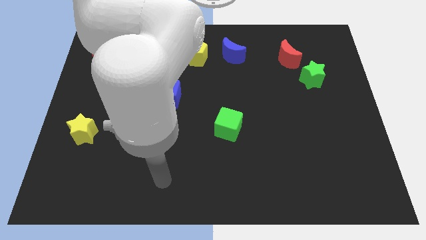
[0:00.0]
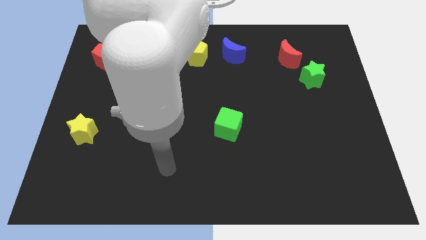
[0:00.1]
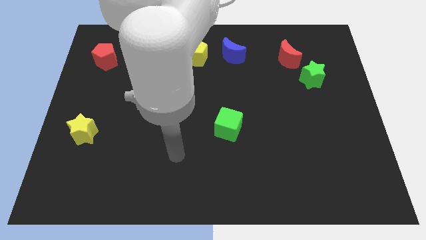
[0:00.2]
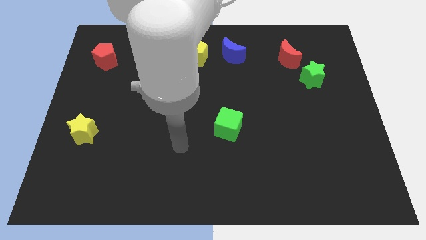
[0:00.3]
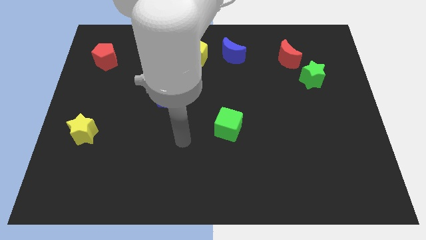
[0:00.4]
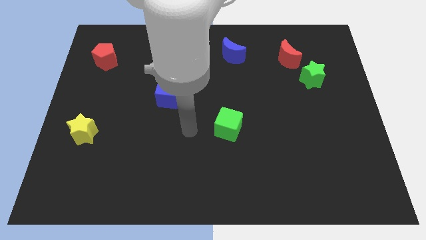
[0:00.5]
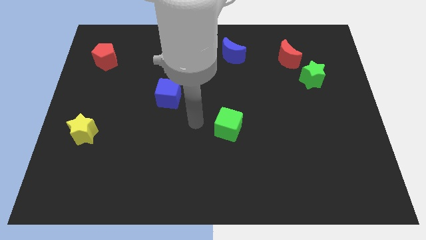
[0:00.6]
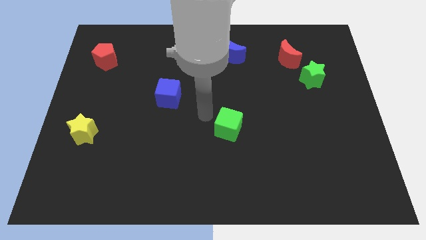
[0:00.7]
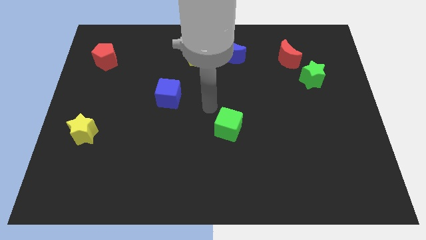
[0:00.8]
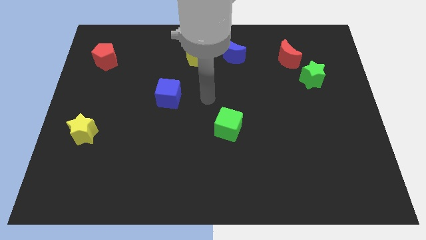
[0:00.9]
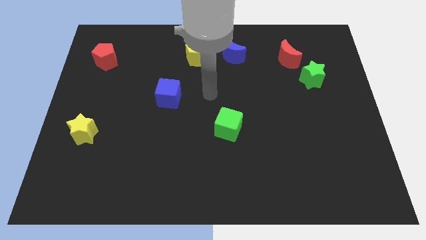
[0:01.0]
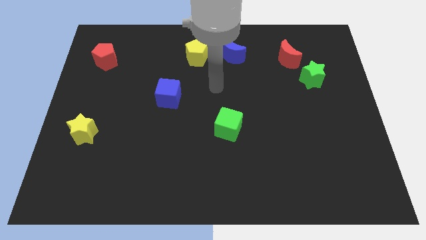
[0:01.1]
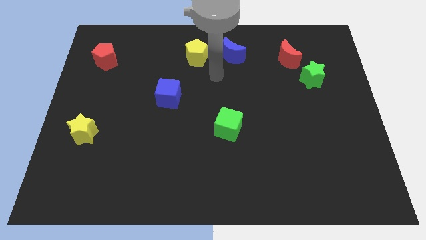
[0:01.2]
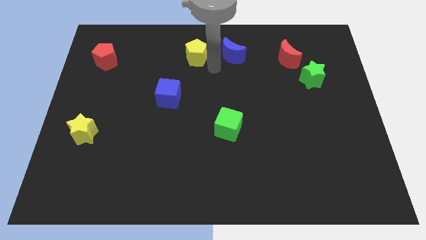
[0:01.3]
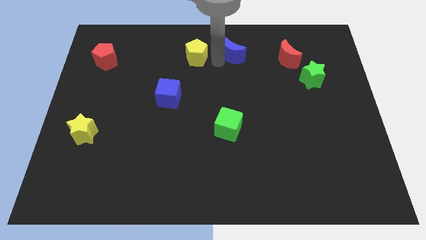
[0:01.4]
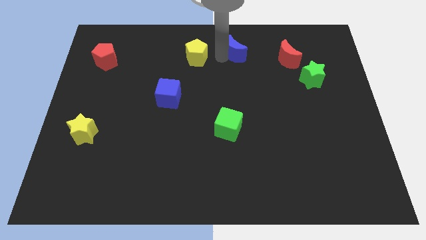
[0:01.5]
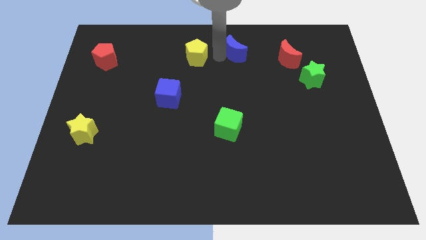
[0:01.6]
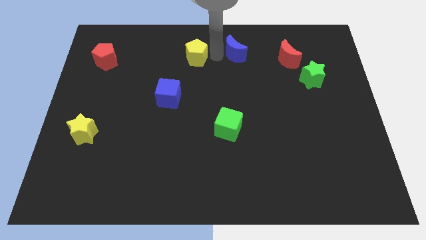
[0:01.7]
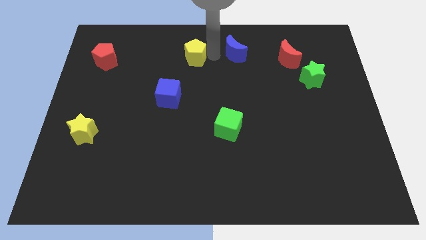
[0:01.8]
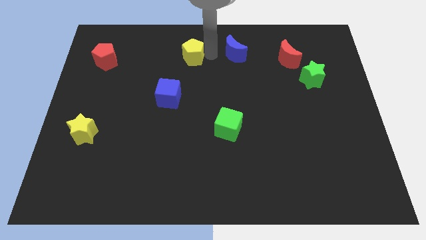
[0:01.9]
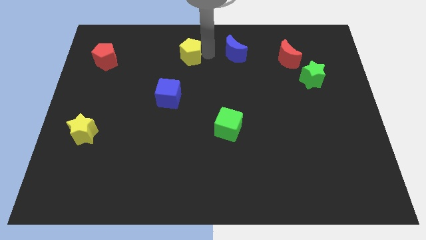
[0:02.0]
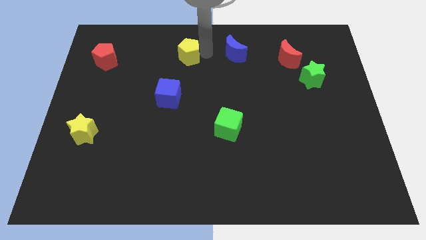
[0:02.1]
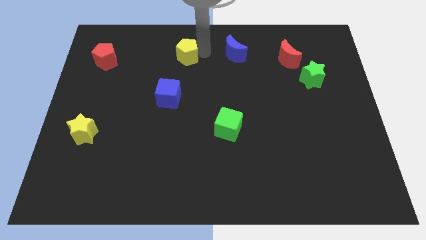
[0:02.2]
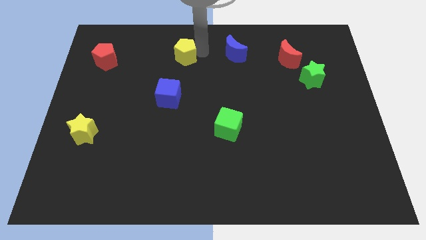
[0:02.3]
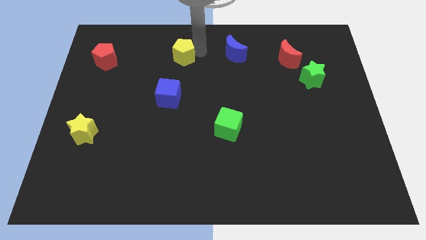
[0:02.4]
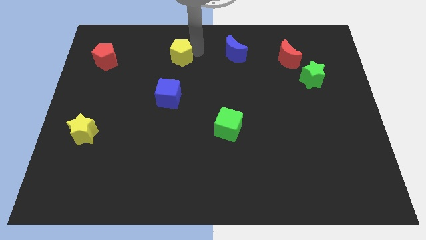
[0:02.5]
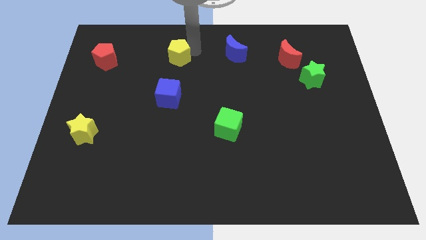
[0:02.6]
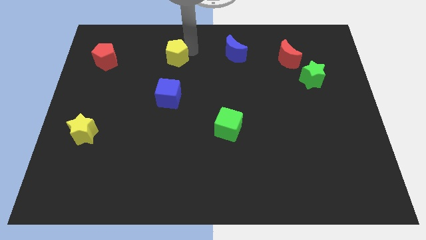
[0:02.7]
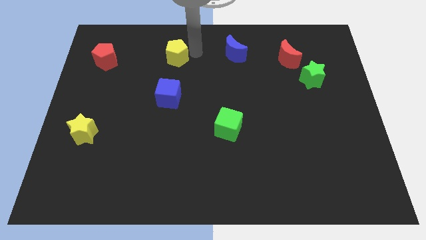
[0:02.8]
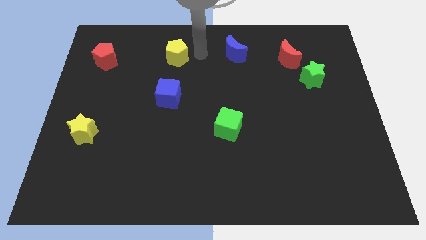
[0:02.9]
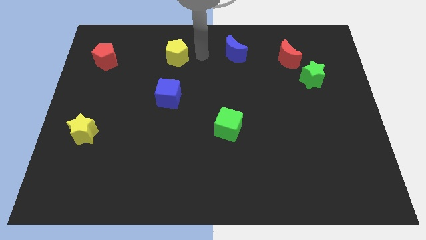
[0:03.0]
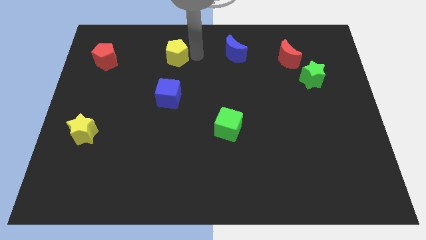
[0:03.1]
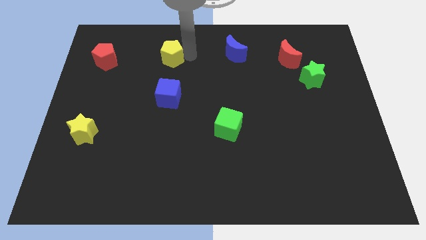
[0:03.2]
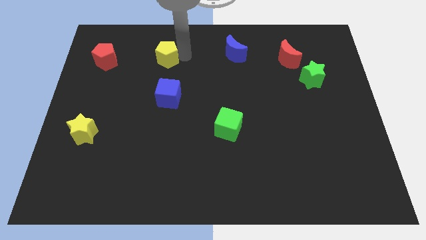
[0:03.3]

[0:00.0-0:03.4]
move the yellow pentagon to the left somewhat

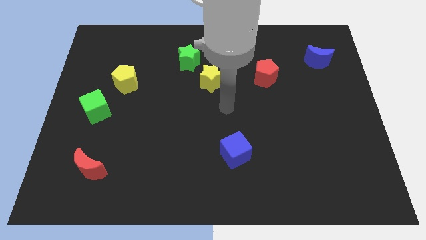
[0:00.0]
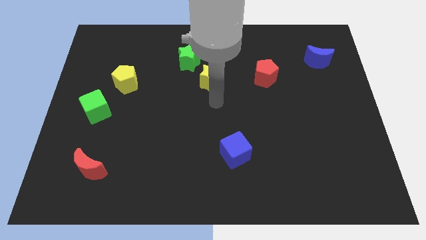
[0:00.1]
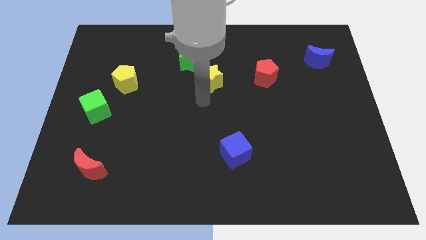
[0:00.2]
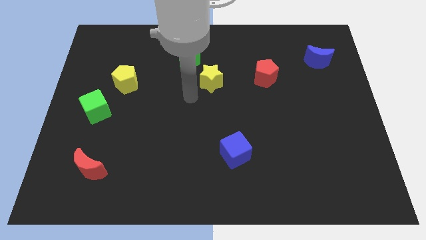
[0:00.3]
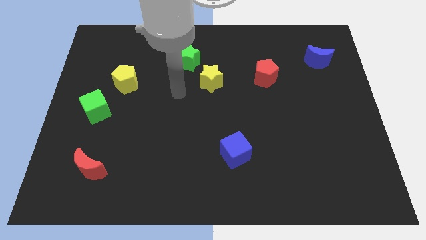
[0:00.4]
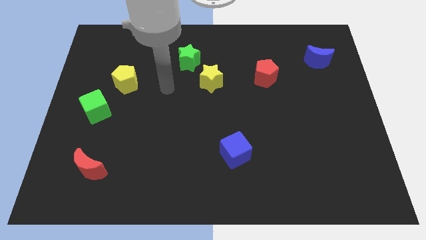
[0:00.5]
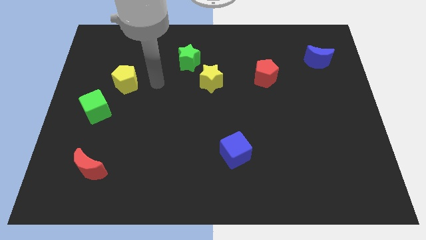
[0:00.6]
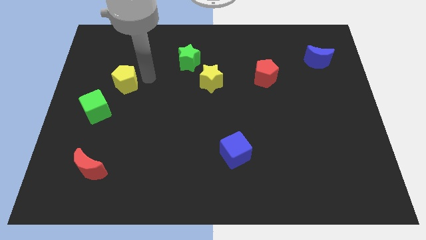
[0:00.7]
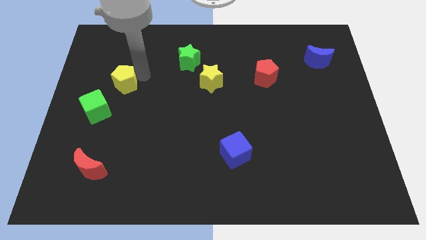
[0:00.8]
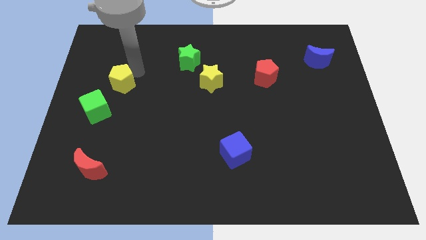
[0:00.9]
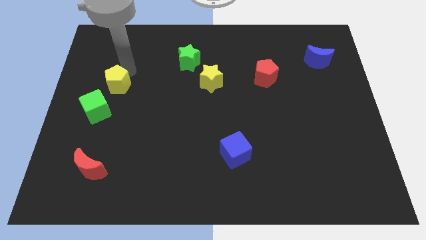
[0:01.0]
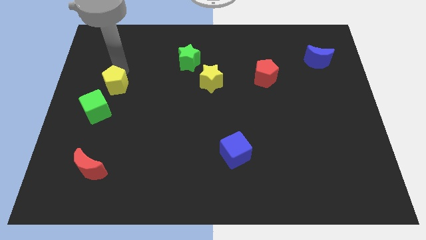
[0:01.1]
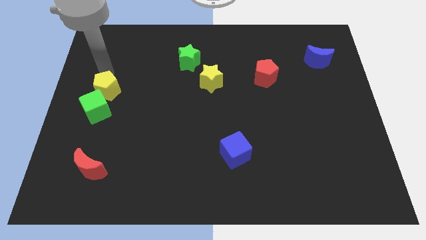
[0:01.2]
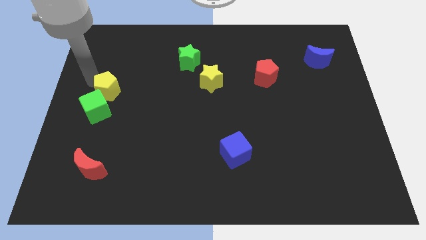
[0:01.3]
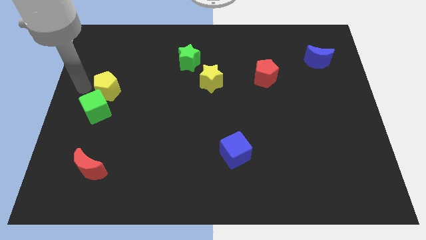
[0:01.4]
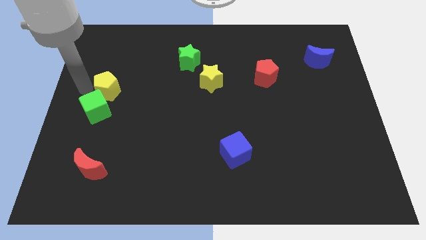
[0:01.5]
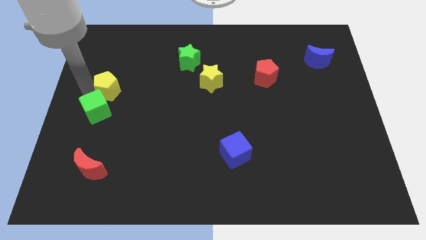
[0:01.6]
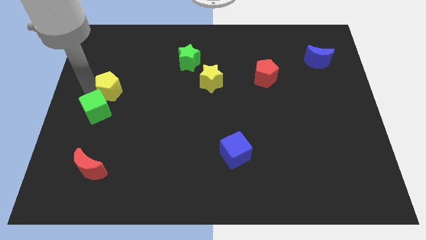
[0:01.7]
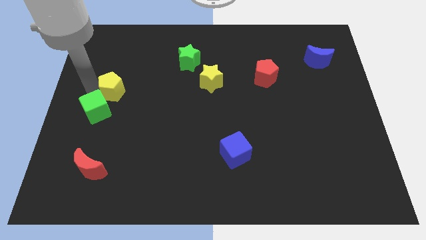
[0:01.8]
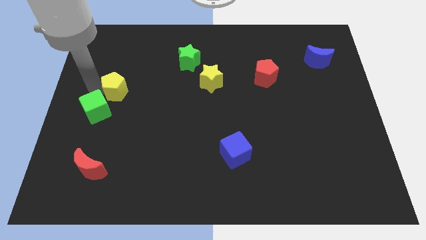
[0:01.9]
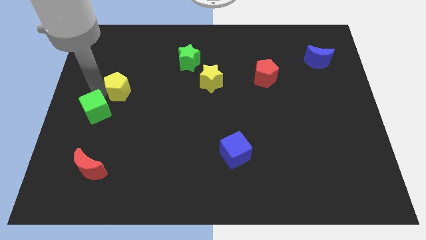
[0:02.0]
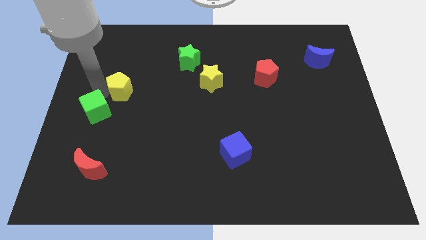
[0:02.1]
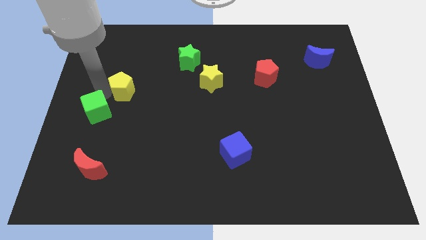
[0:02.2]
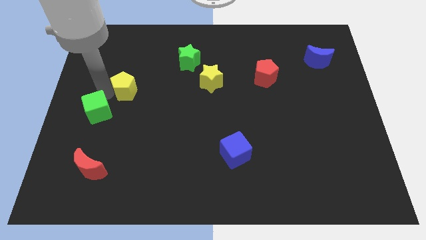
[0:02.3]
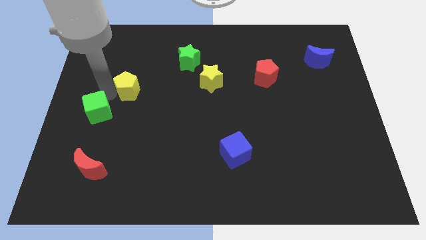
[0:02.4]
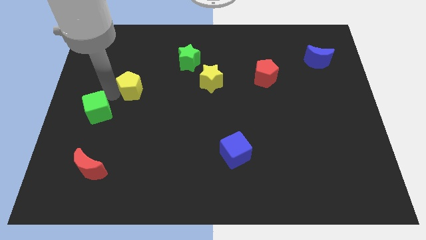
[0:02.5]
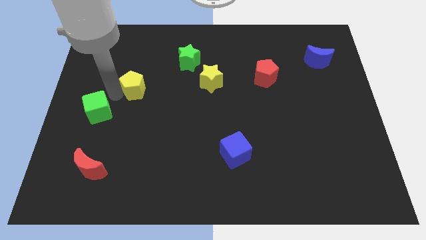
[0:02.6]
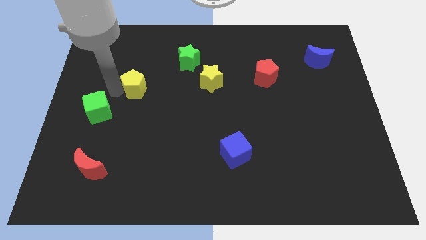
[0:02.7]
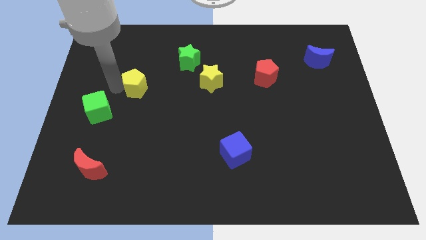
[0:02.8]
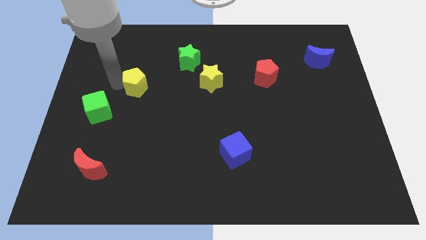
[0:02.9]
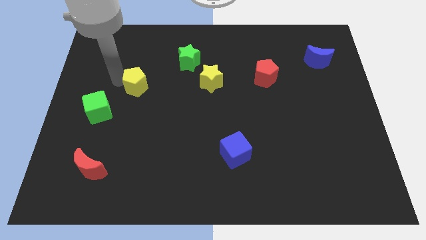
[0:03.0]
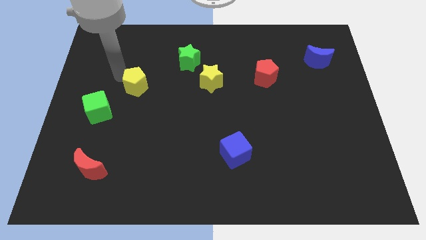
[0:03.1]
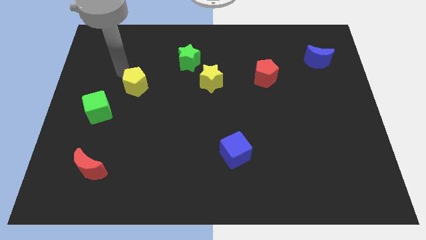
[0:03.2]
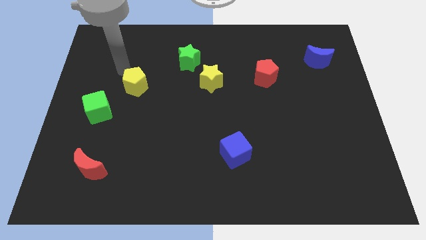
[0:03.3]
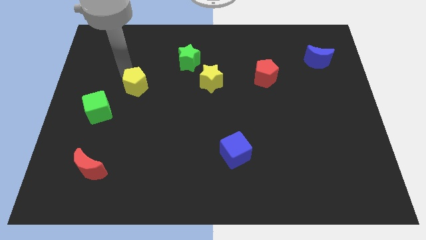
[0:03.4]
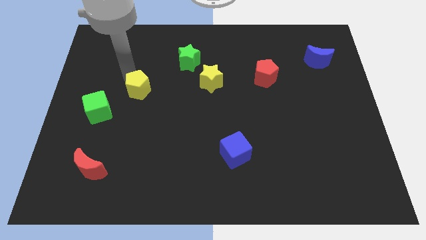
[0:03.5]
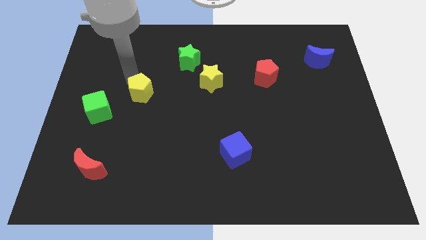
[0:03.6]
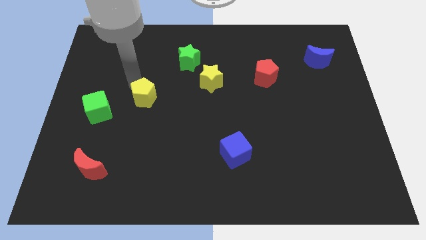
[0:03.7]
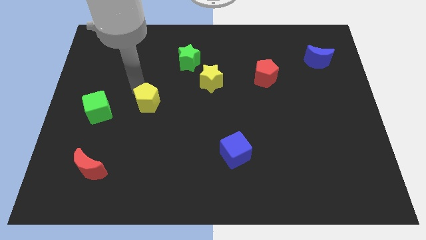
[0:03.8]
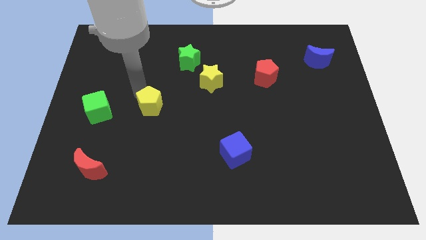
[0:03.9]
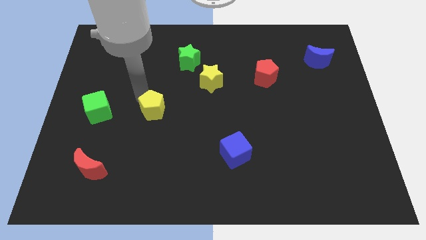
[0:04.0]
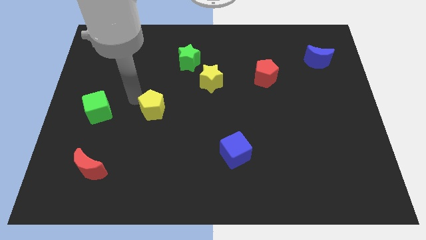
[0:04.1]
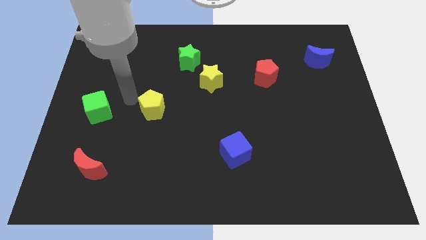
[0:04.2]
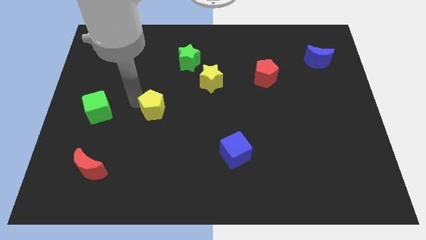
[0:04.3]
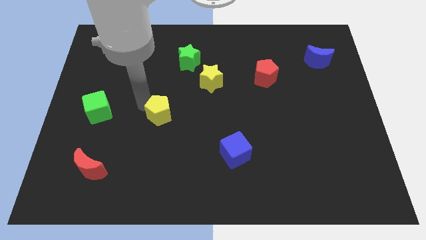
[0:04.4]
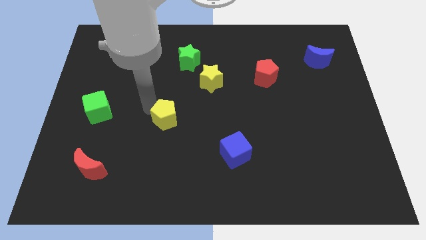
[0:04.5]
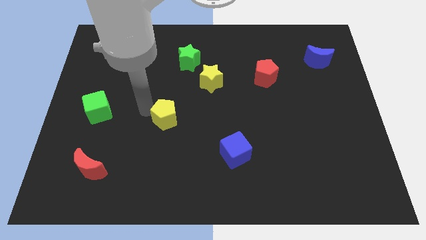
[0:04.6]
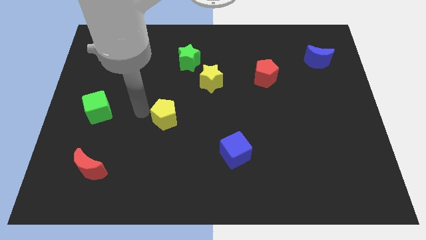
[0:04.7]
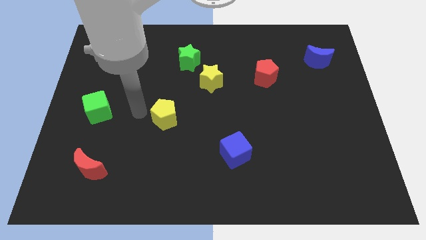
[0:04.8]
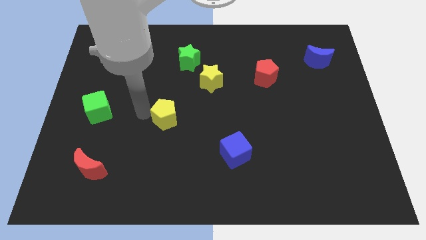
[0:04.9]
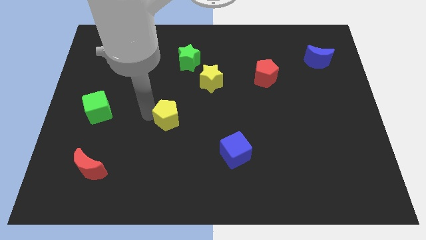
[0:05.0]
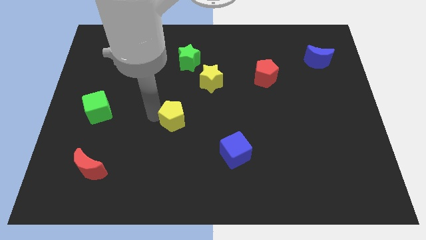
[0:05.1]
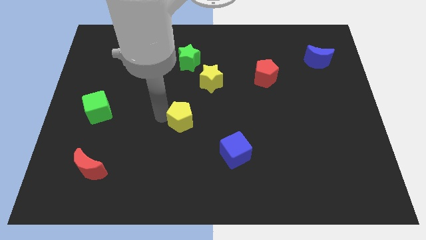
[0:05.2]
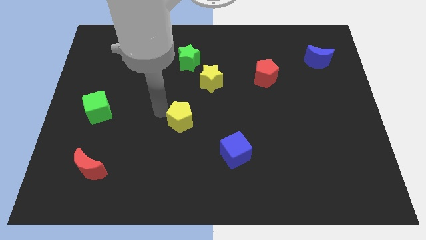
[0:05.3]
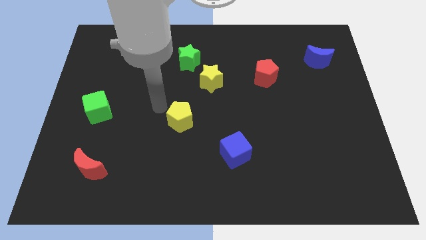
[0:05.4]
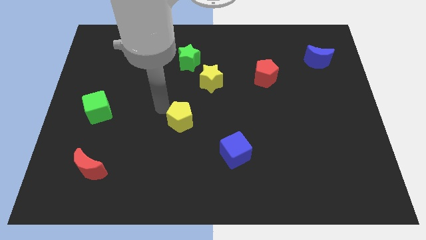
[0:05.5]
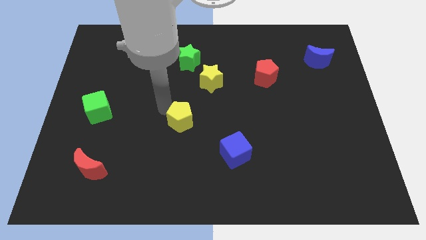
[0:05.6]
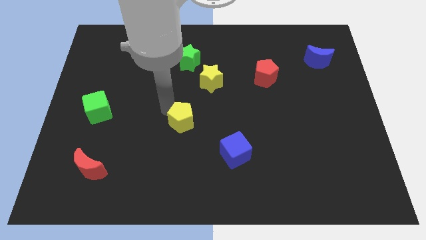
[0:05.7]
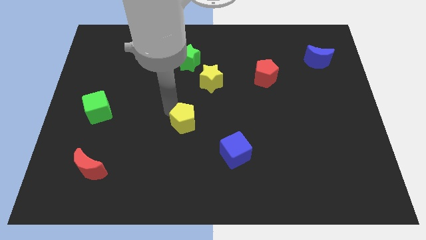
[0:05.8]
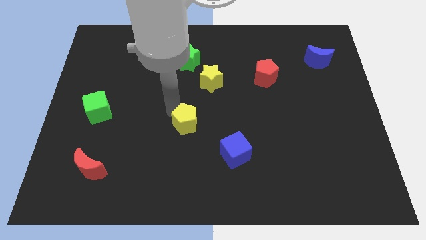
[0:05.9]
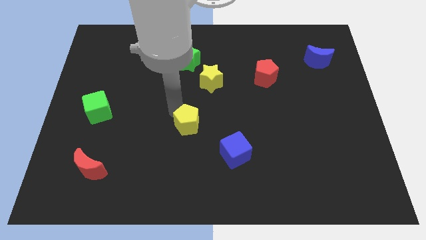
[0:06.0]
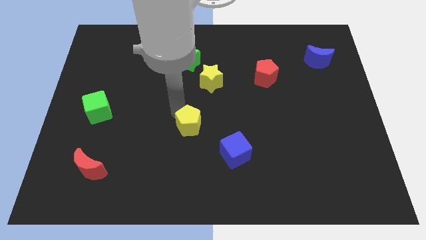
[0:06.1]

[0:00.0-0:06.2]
move the yellow pentagon diagonally downwards and right
